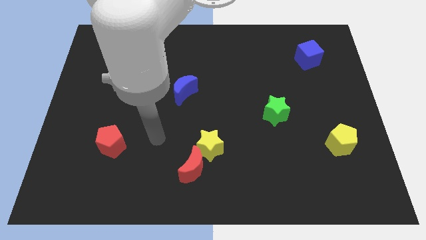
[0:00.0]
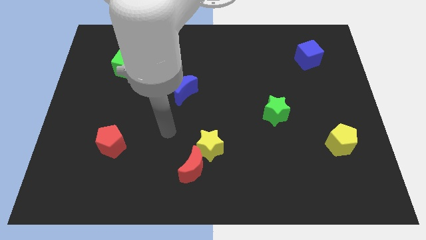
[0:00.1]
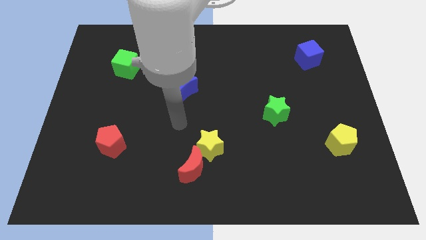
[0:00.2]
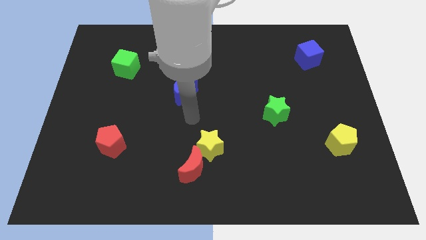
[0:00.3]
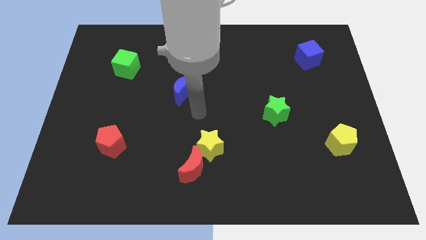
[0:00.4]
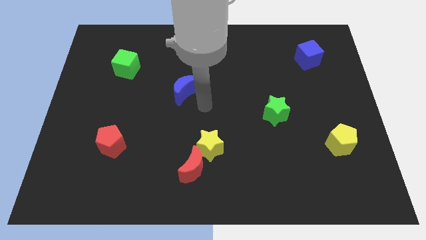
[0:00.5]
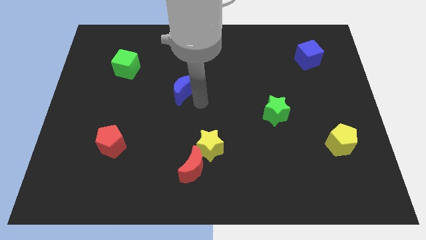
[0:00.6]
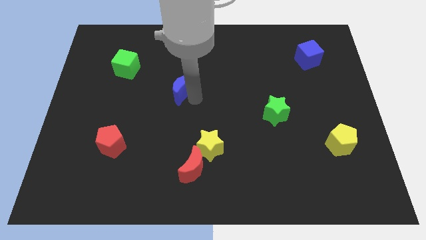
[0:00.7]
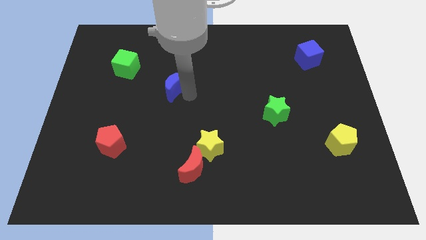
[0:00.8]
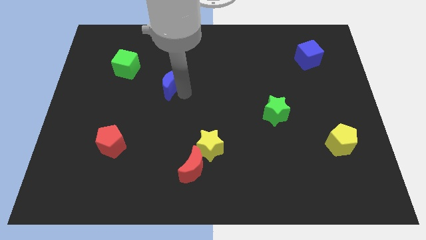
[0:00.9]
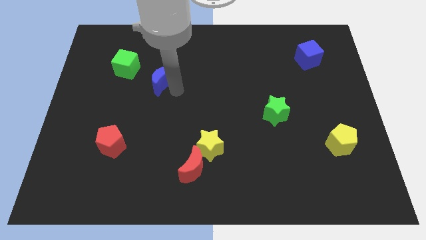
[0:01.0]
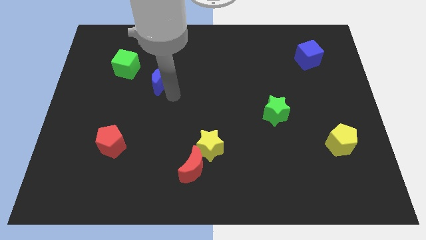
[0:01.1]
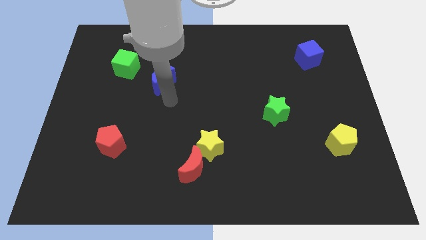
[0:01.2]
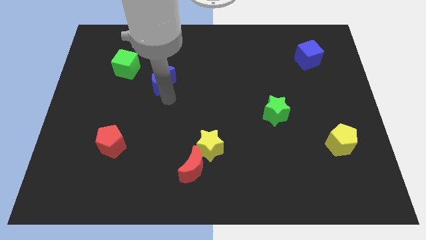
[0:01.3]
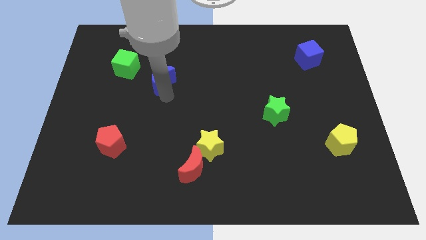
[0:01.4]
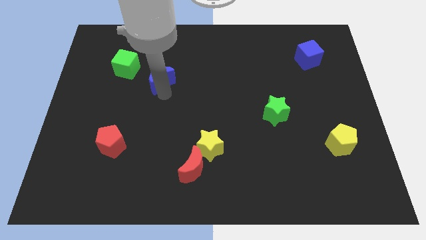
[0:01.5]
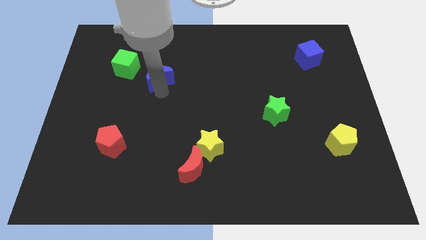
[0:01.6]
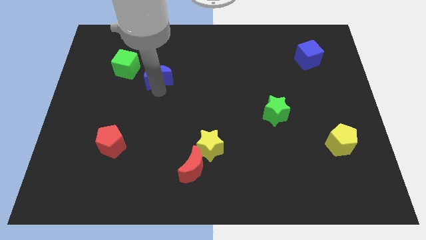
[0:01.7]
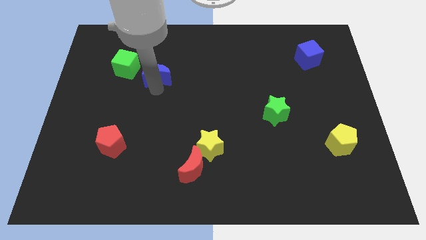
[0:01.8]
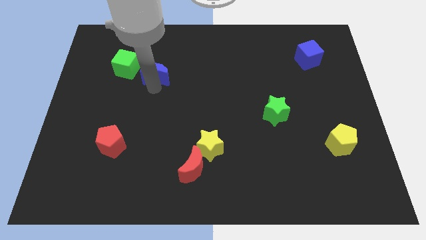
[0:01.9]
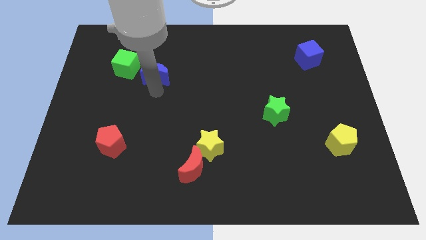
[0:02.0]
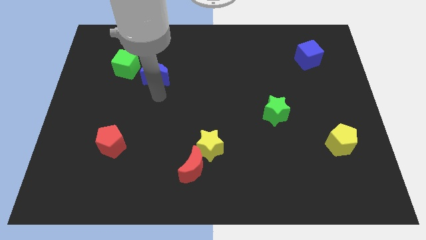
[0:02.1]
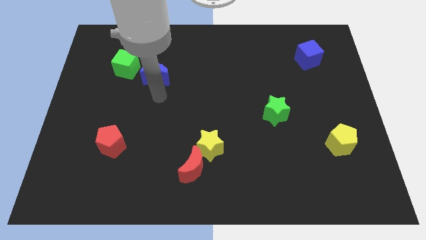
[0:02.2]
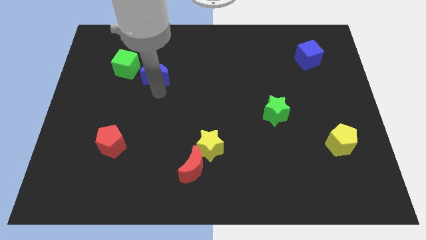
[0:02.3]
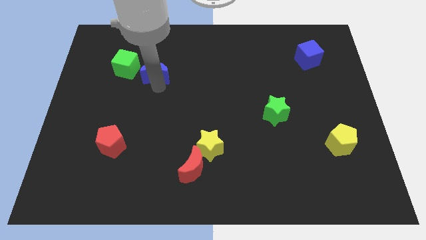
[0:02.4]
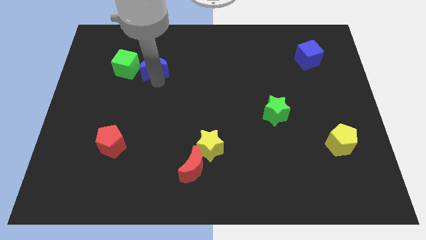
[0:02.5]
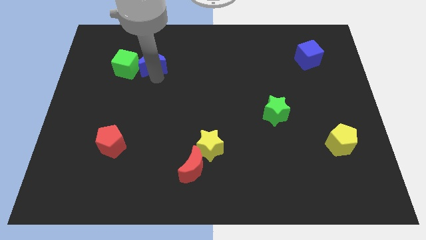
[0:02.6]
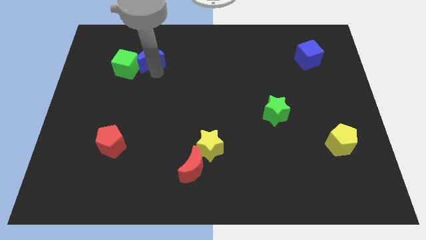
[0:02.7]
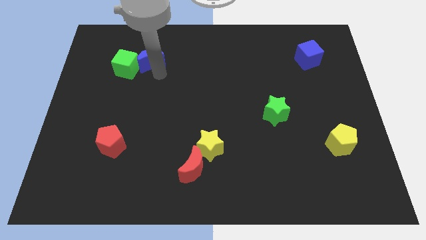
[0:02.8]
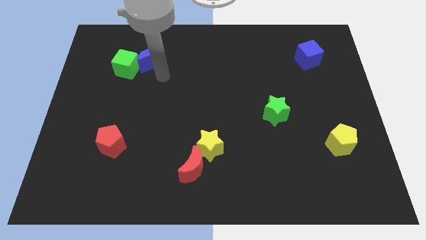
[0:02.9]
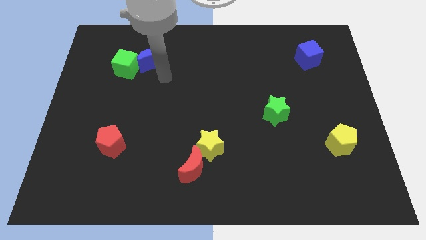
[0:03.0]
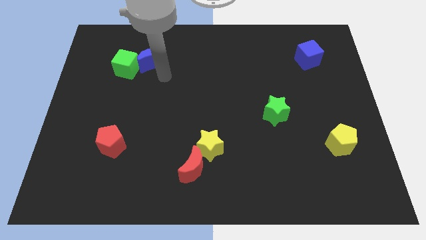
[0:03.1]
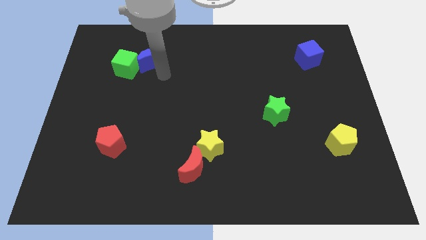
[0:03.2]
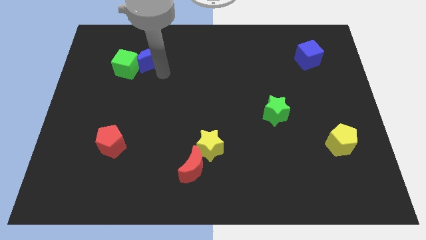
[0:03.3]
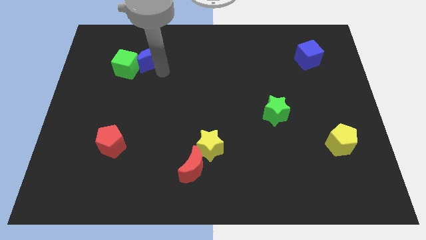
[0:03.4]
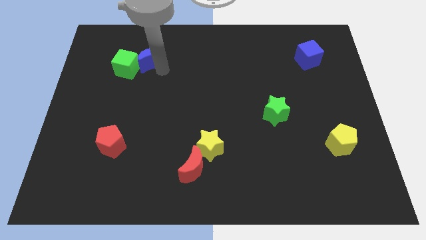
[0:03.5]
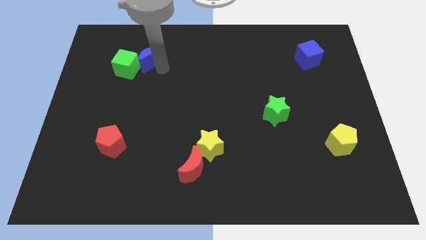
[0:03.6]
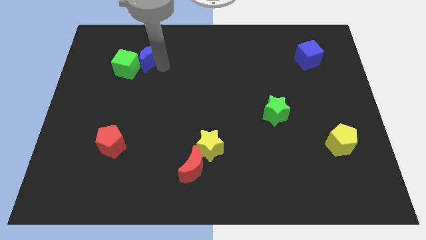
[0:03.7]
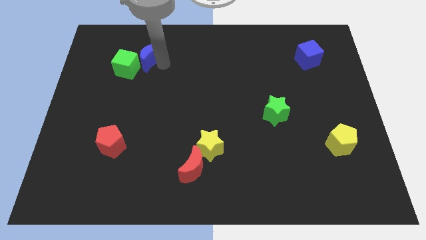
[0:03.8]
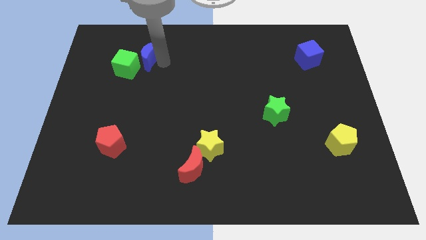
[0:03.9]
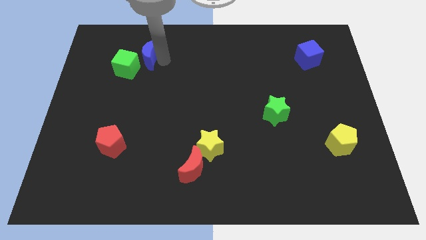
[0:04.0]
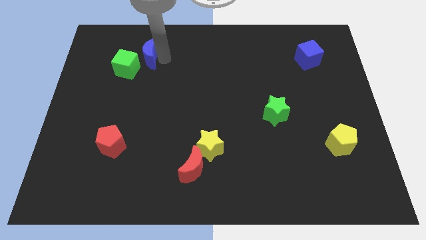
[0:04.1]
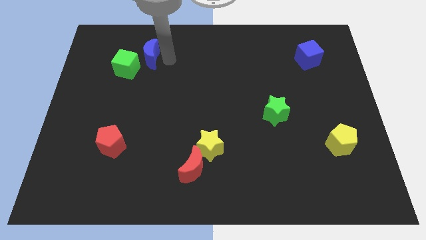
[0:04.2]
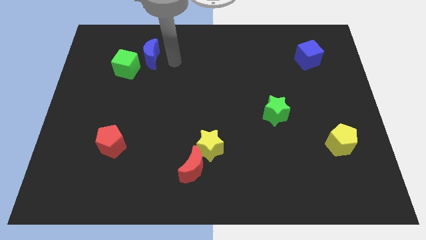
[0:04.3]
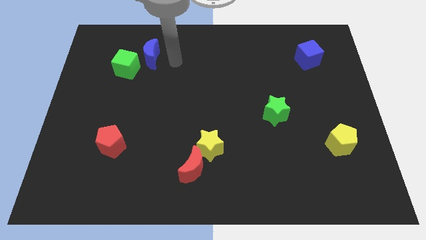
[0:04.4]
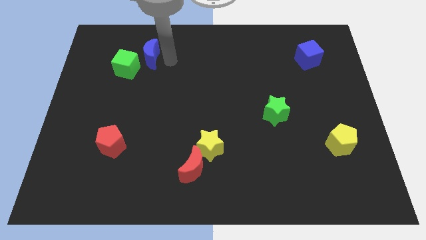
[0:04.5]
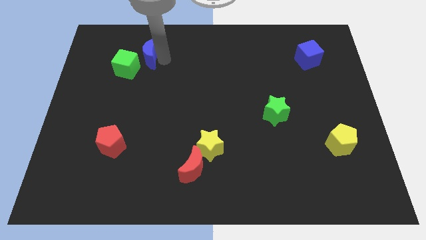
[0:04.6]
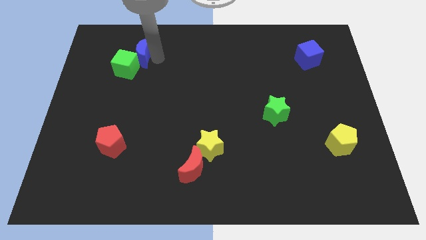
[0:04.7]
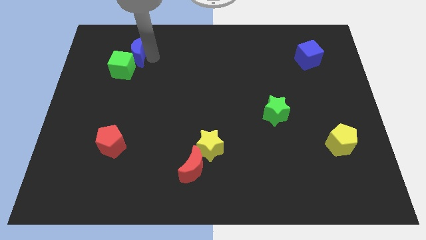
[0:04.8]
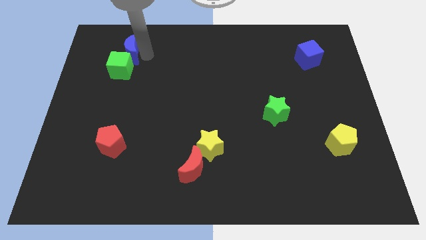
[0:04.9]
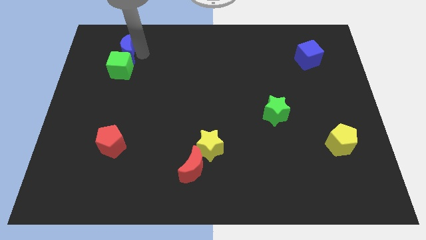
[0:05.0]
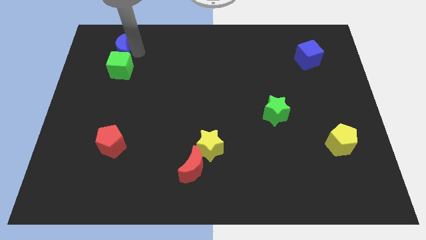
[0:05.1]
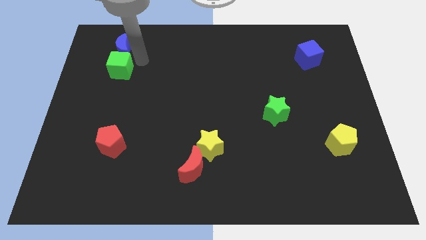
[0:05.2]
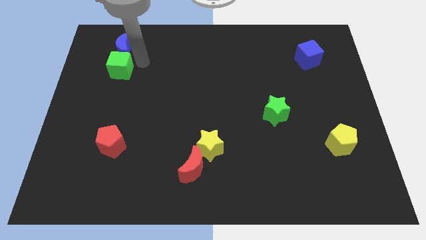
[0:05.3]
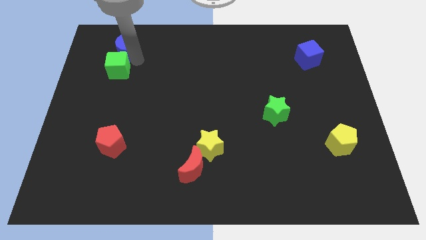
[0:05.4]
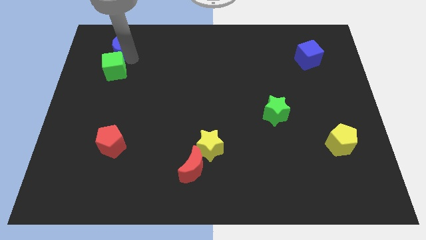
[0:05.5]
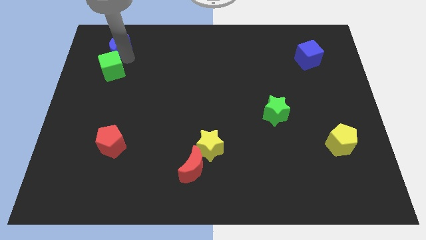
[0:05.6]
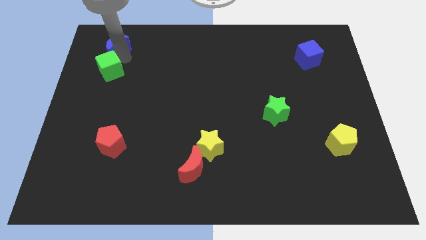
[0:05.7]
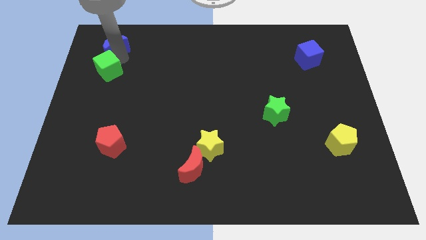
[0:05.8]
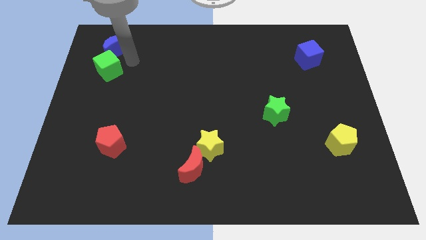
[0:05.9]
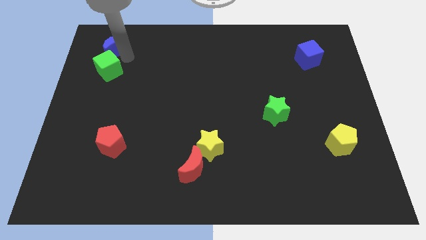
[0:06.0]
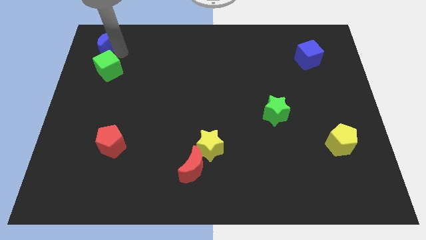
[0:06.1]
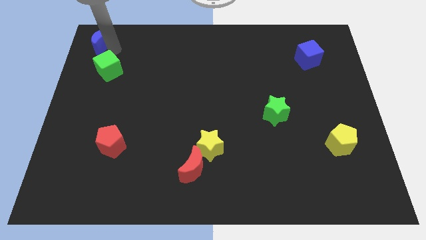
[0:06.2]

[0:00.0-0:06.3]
slide the blue moon to the upper left corner

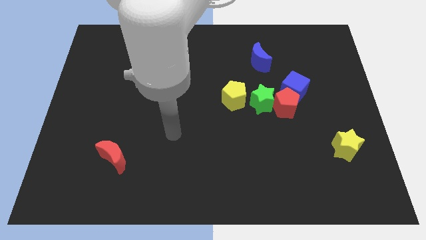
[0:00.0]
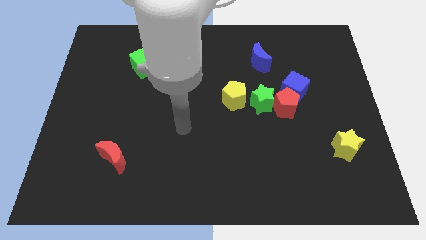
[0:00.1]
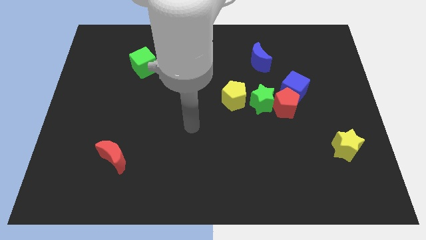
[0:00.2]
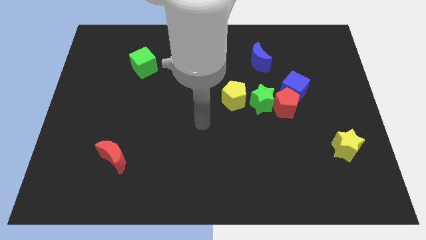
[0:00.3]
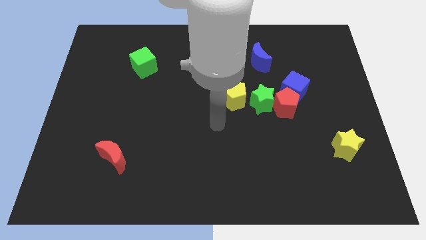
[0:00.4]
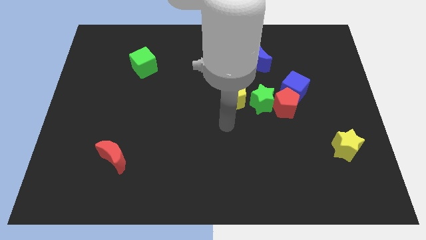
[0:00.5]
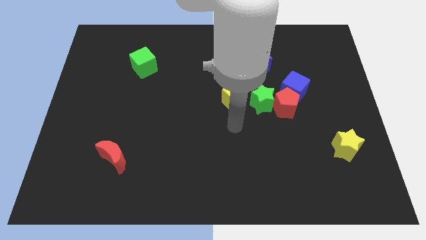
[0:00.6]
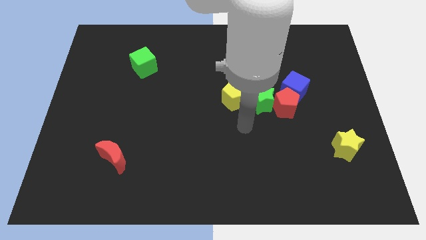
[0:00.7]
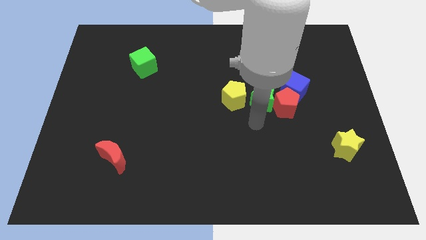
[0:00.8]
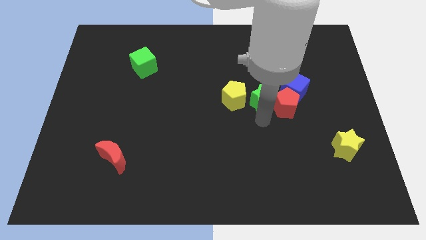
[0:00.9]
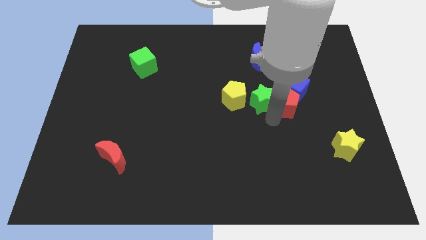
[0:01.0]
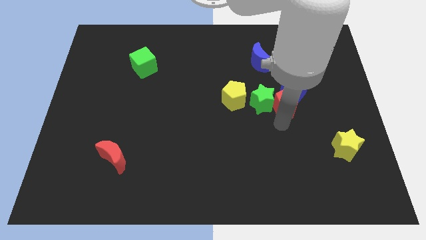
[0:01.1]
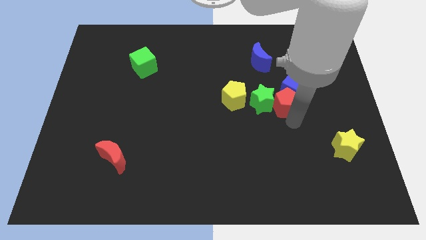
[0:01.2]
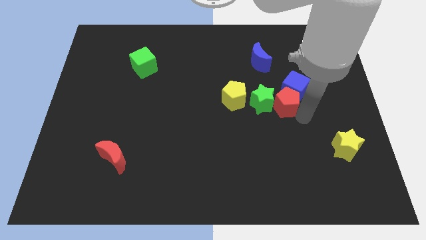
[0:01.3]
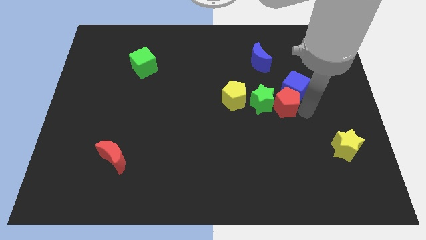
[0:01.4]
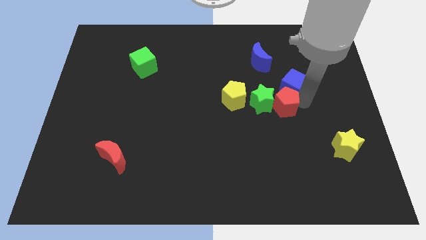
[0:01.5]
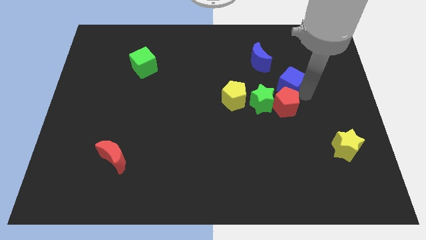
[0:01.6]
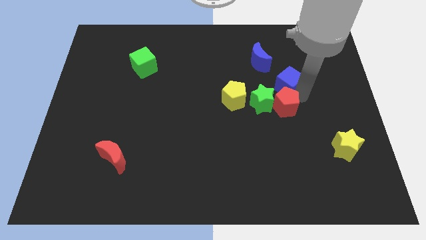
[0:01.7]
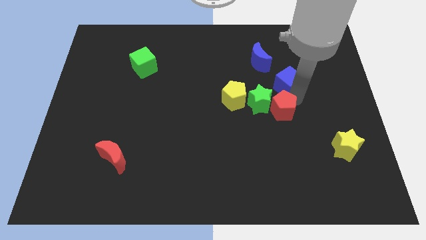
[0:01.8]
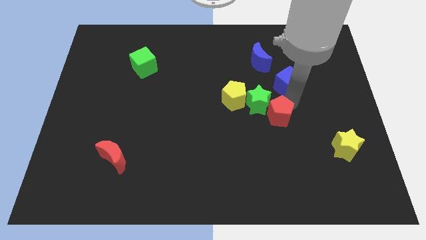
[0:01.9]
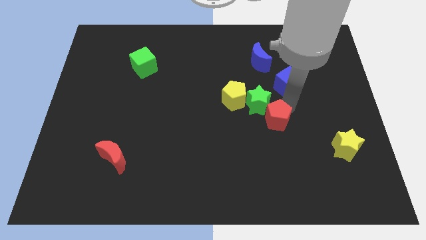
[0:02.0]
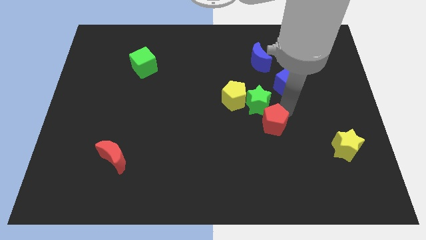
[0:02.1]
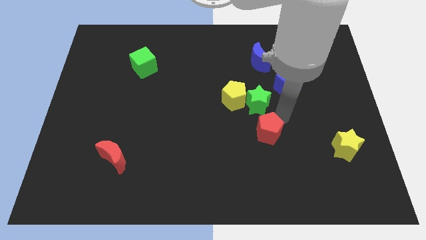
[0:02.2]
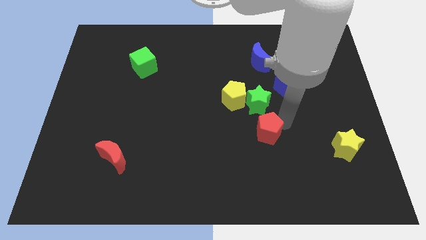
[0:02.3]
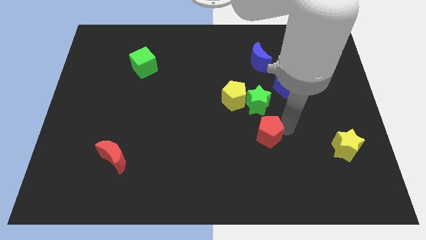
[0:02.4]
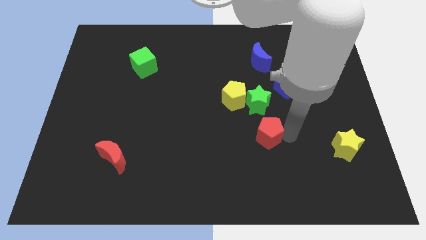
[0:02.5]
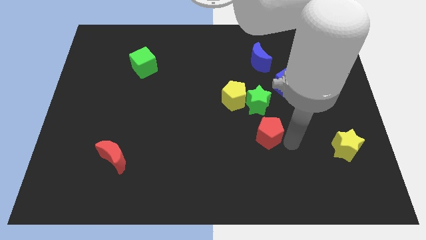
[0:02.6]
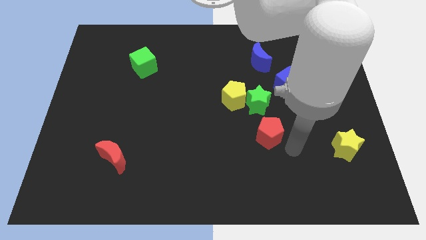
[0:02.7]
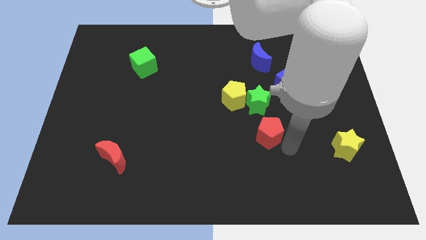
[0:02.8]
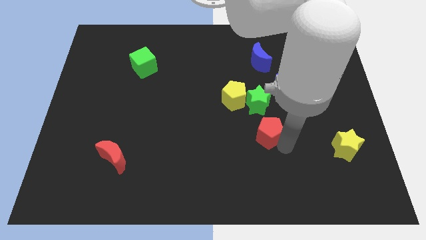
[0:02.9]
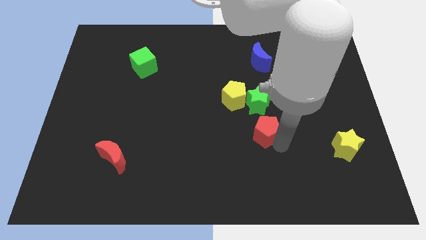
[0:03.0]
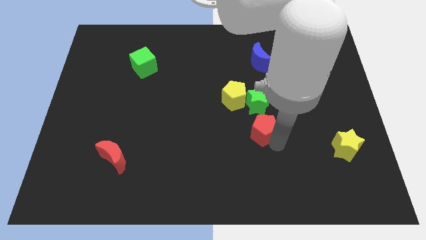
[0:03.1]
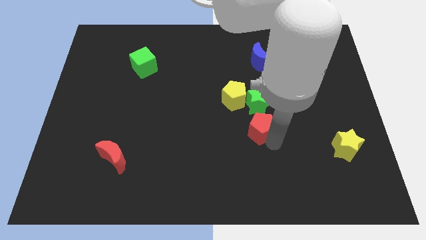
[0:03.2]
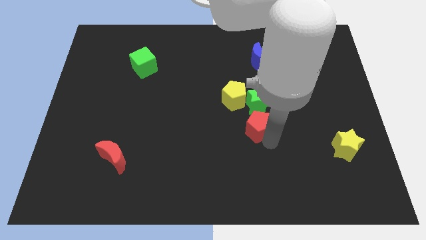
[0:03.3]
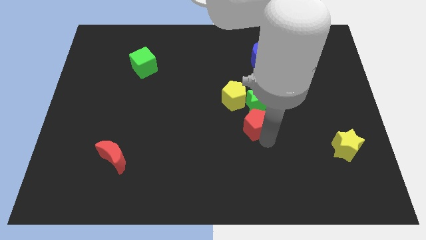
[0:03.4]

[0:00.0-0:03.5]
push the red pentagon to the middle of the board
